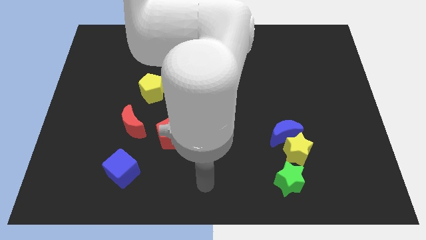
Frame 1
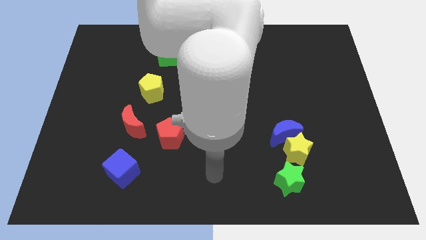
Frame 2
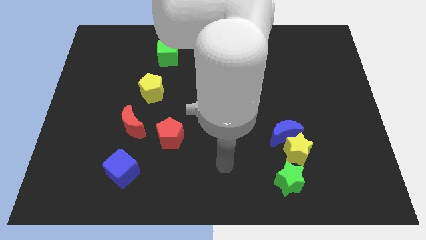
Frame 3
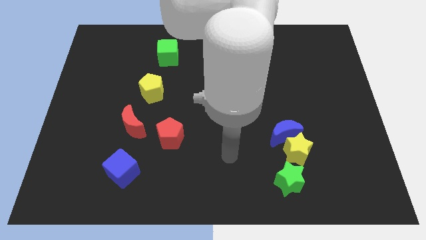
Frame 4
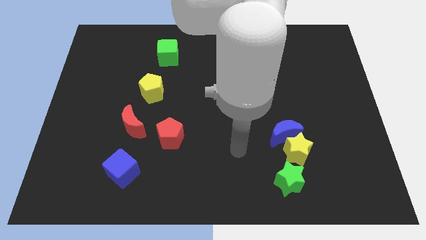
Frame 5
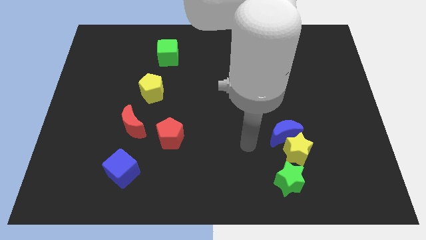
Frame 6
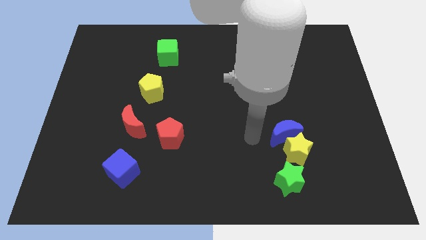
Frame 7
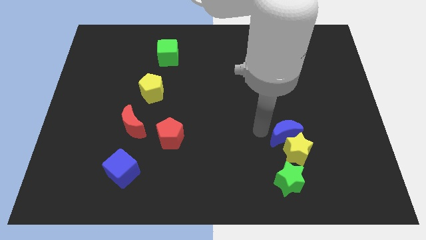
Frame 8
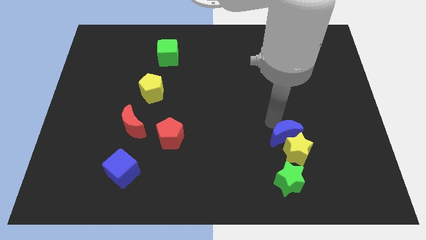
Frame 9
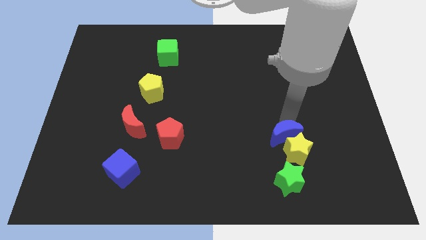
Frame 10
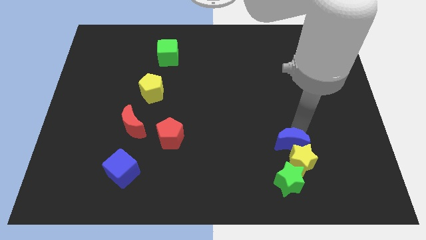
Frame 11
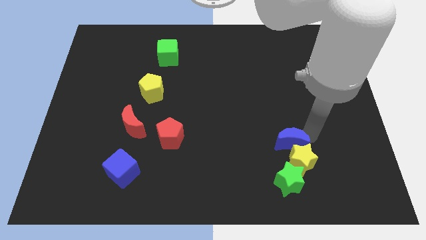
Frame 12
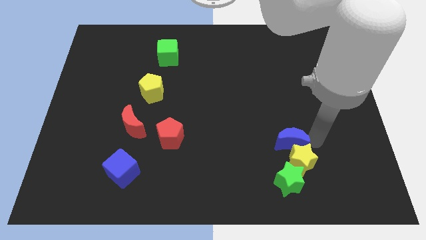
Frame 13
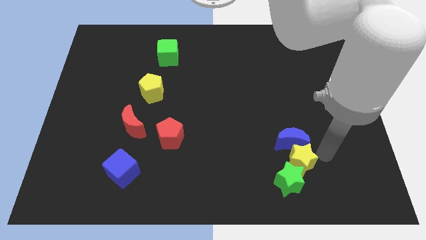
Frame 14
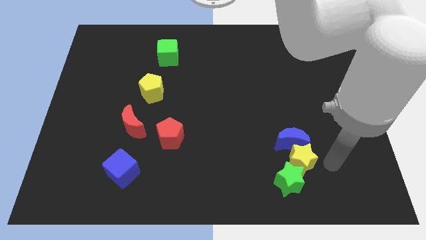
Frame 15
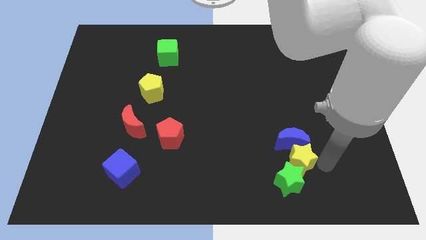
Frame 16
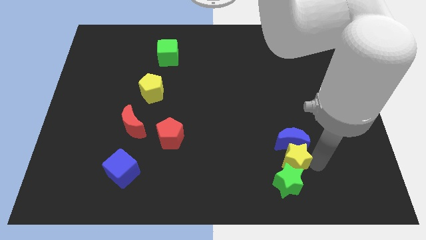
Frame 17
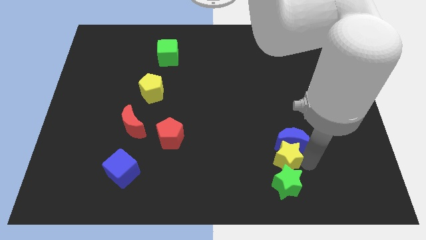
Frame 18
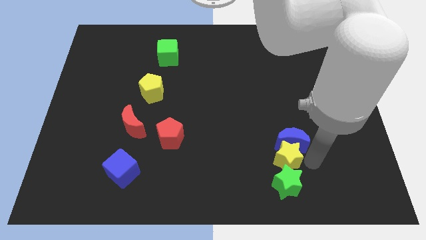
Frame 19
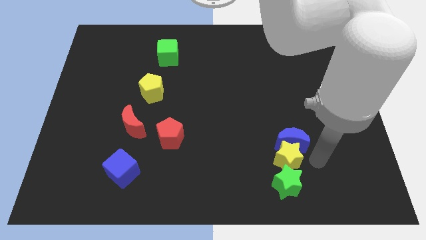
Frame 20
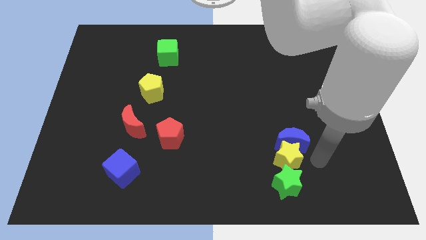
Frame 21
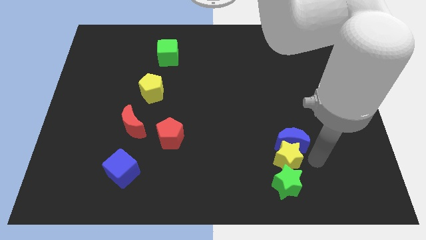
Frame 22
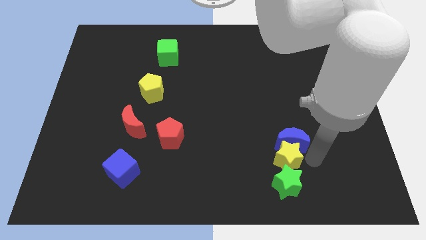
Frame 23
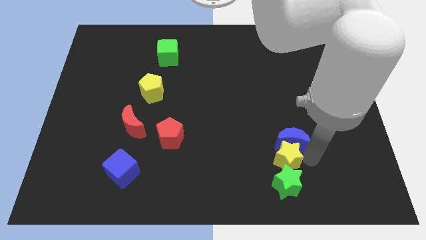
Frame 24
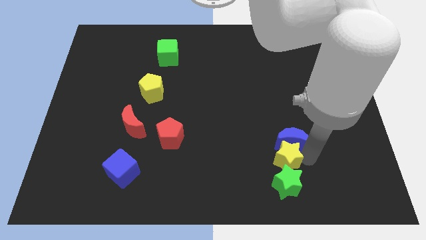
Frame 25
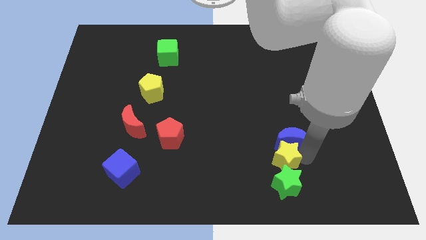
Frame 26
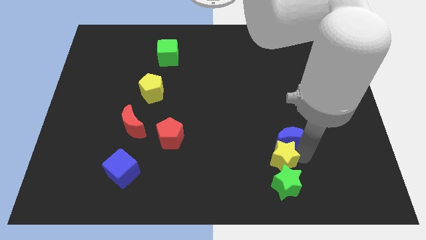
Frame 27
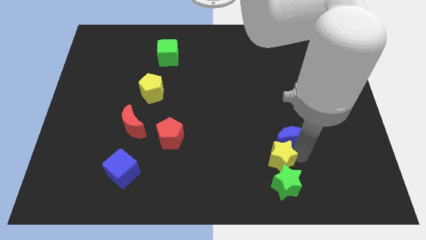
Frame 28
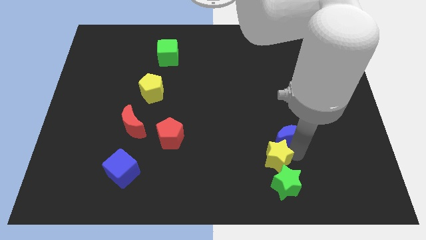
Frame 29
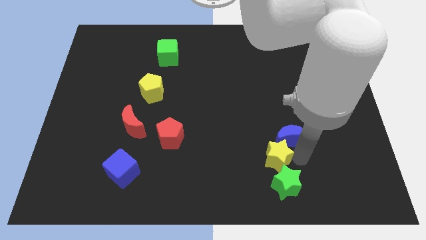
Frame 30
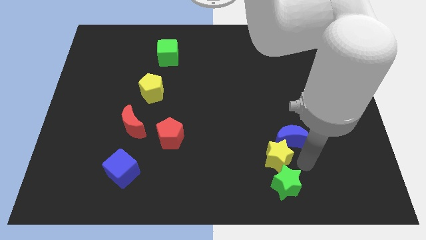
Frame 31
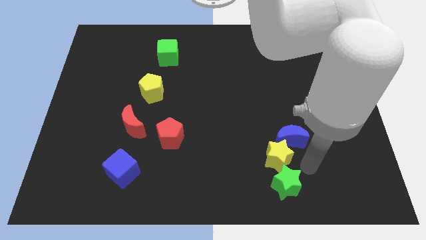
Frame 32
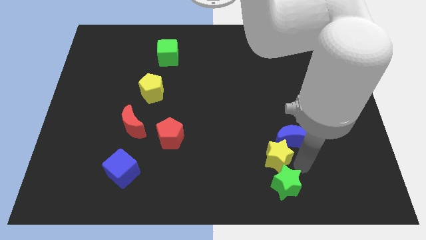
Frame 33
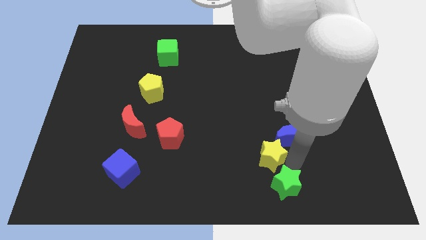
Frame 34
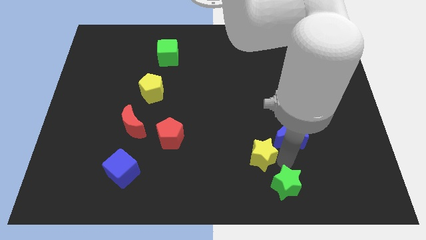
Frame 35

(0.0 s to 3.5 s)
push the yellow star left a little

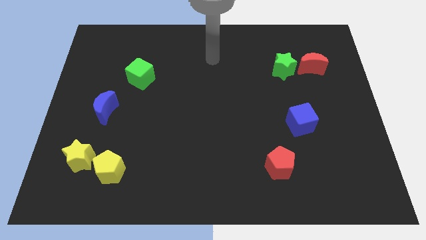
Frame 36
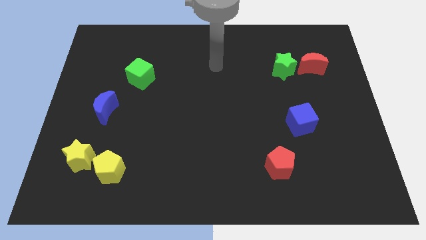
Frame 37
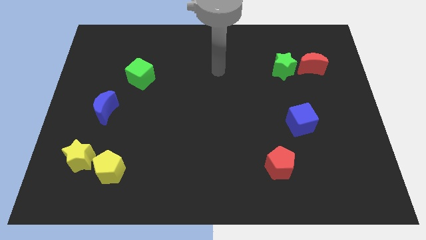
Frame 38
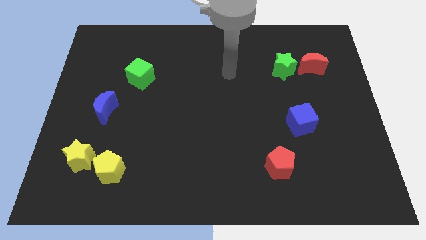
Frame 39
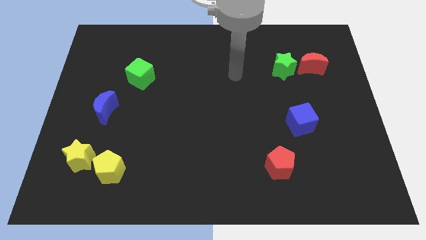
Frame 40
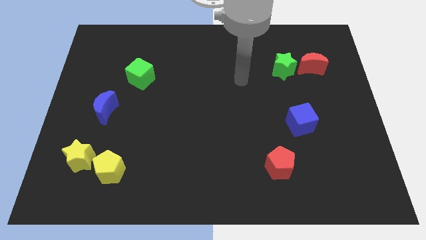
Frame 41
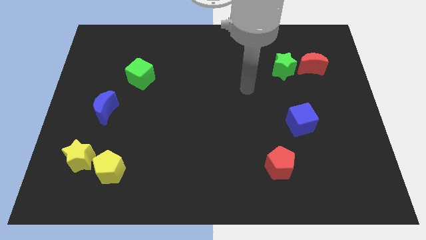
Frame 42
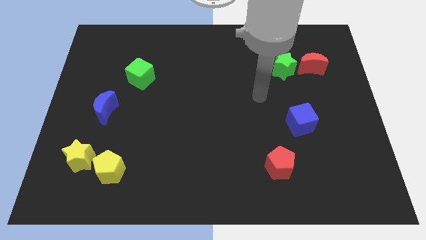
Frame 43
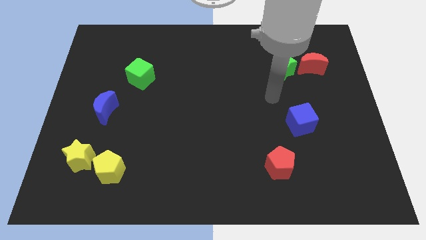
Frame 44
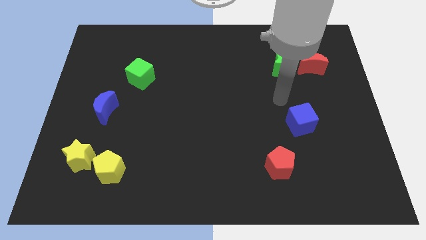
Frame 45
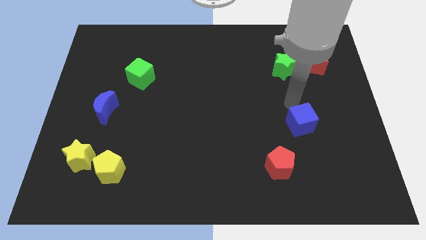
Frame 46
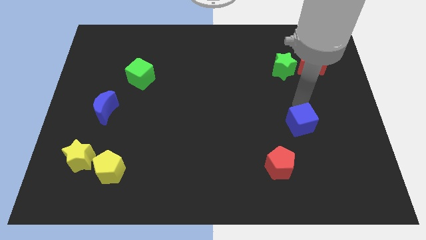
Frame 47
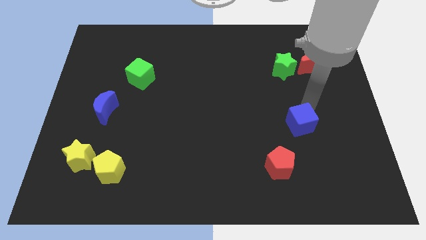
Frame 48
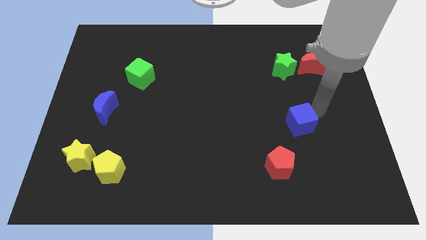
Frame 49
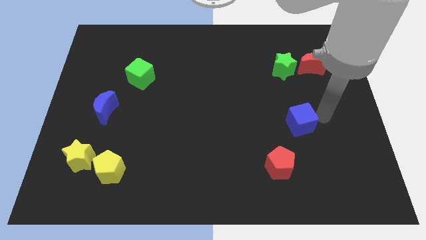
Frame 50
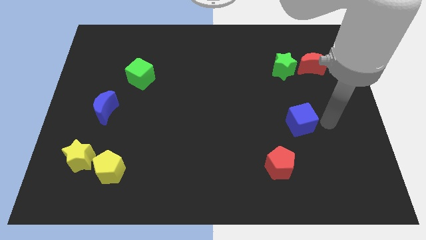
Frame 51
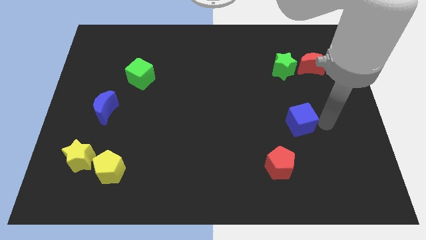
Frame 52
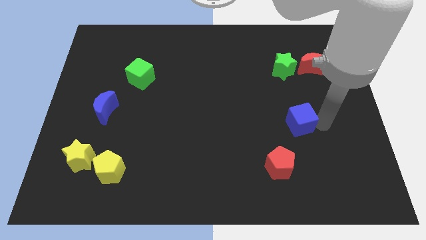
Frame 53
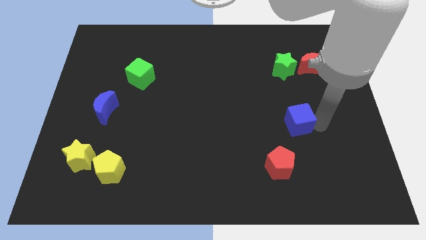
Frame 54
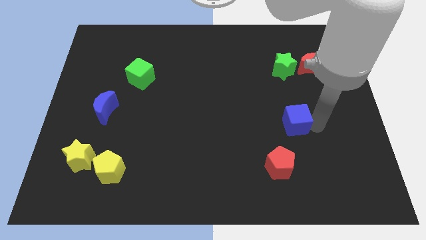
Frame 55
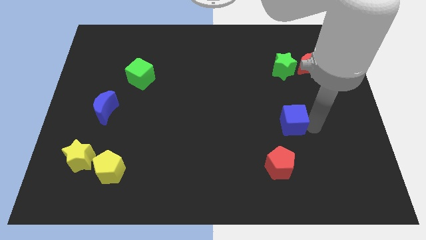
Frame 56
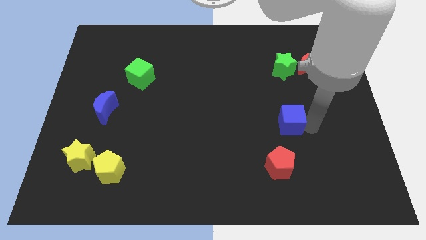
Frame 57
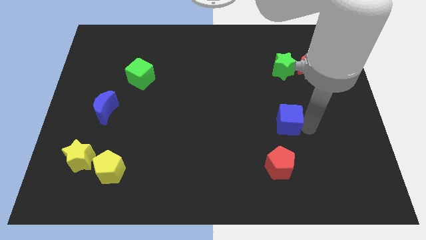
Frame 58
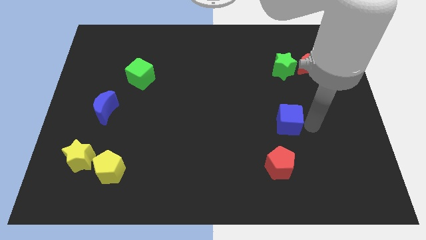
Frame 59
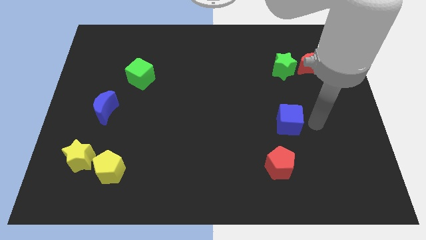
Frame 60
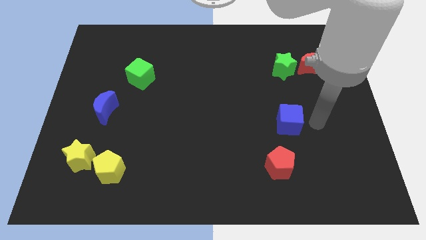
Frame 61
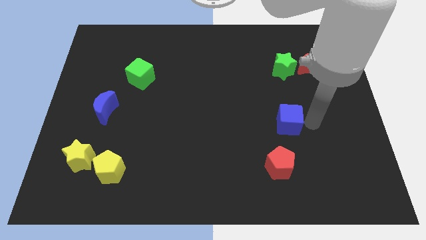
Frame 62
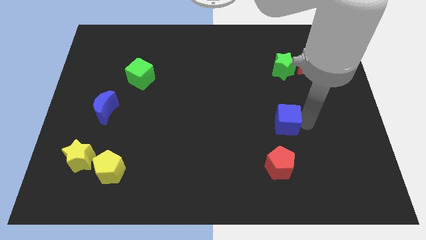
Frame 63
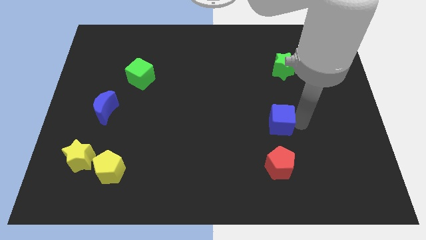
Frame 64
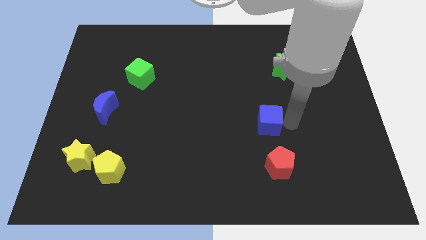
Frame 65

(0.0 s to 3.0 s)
push the blue cube left a bit

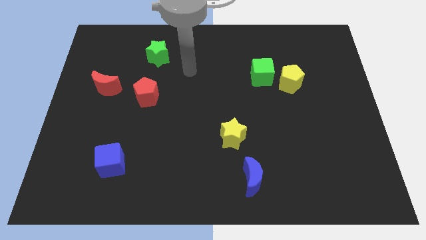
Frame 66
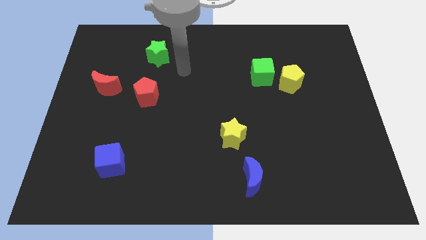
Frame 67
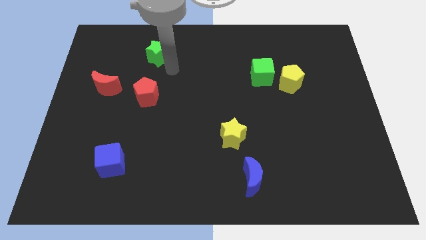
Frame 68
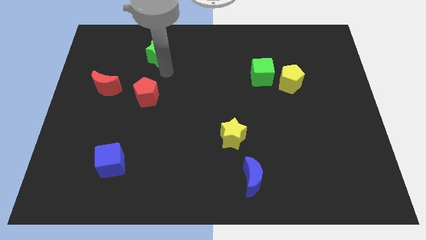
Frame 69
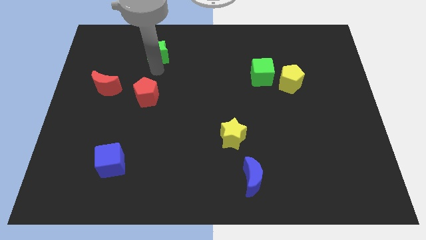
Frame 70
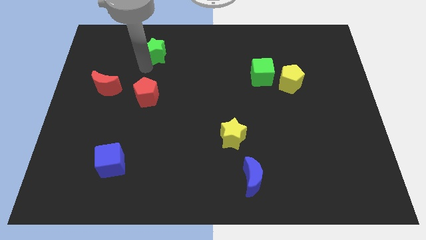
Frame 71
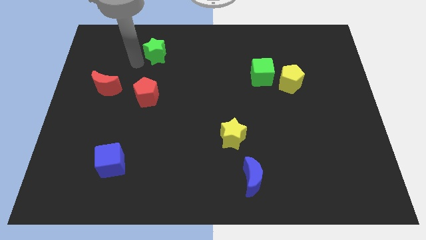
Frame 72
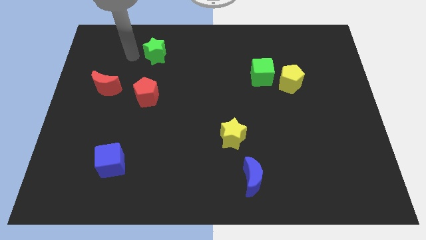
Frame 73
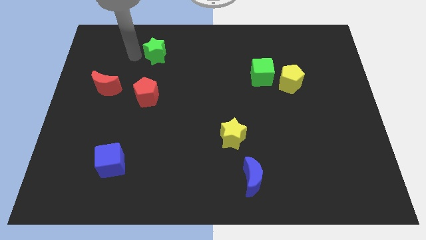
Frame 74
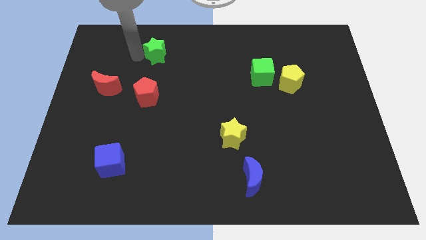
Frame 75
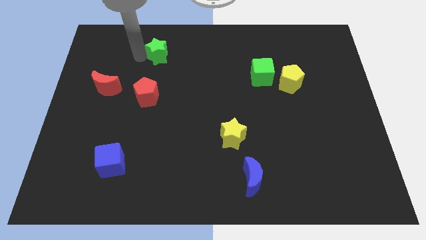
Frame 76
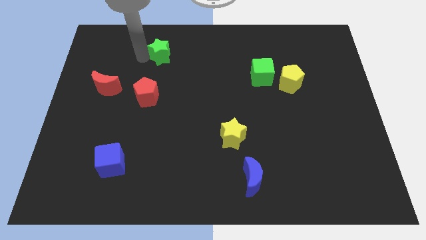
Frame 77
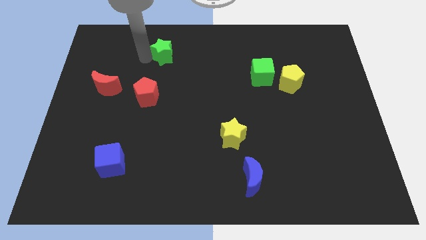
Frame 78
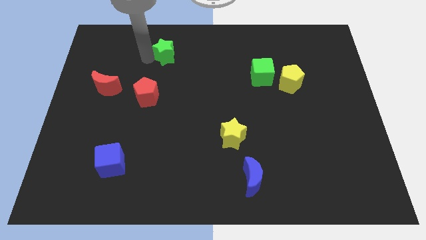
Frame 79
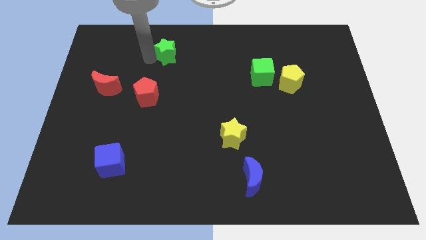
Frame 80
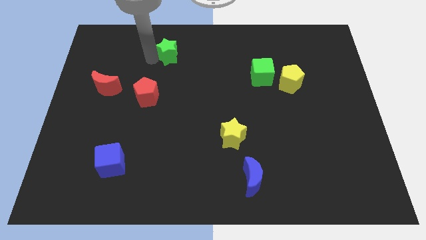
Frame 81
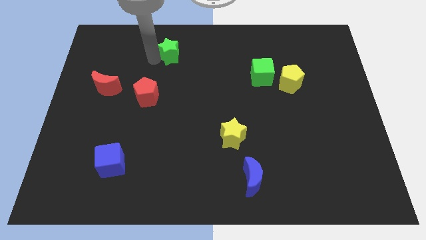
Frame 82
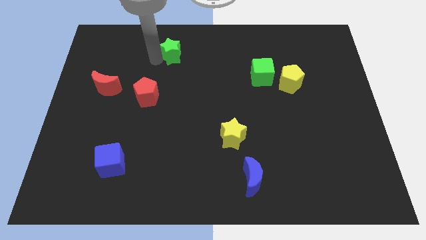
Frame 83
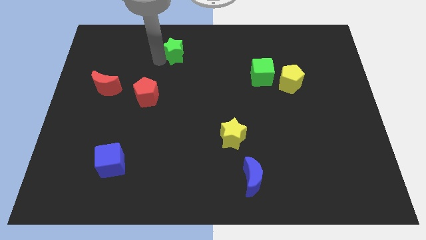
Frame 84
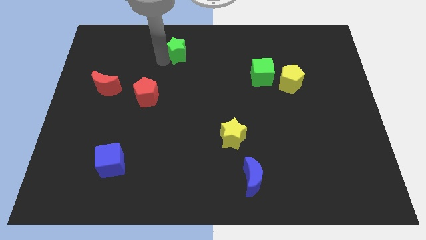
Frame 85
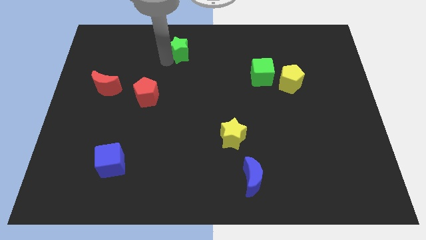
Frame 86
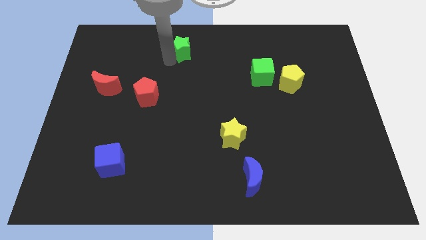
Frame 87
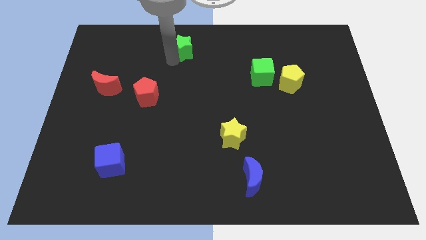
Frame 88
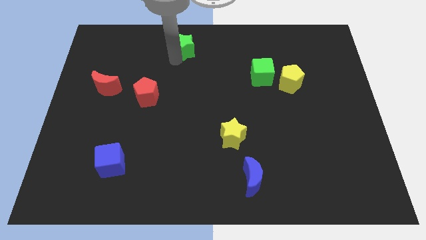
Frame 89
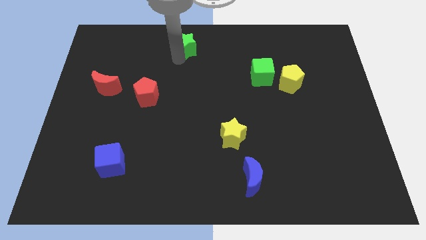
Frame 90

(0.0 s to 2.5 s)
push the green star to the right a little bit
